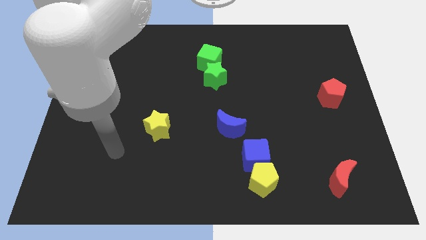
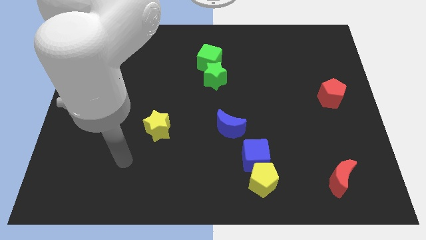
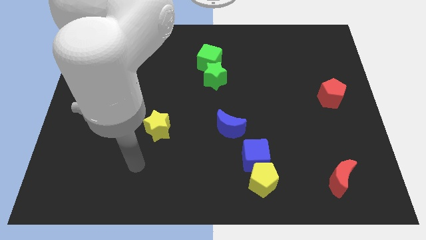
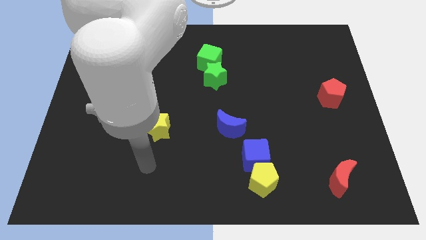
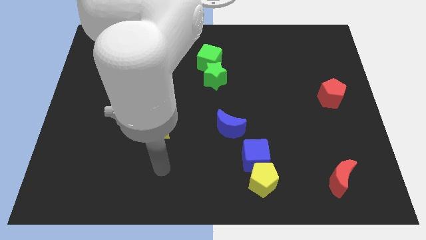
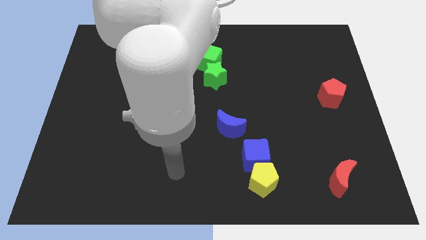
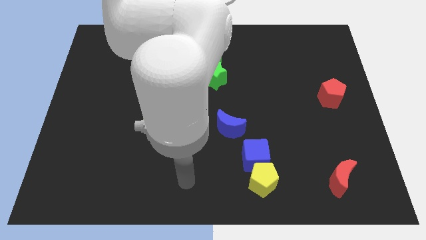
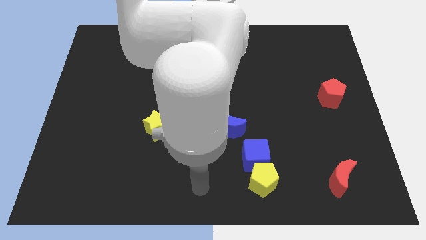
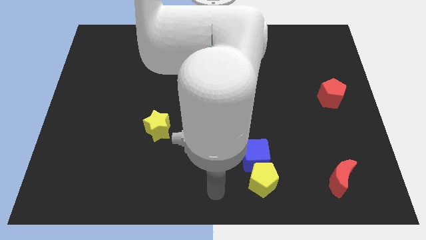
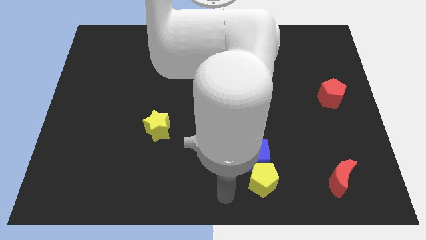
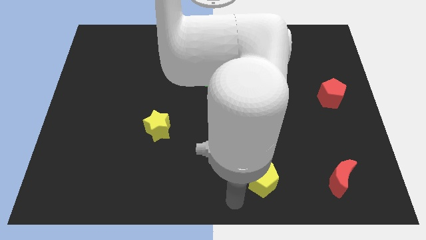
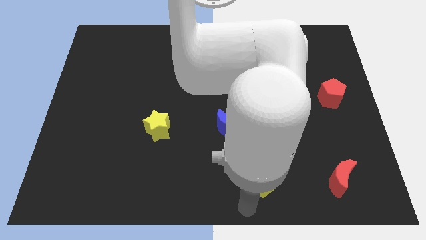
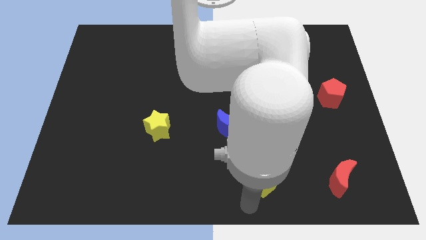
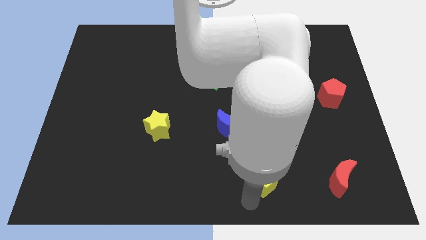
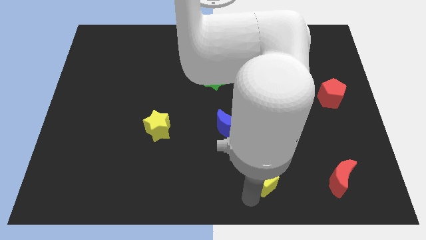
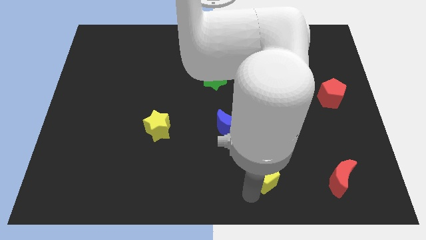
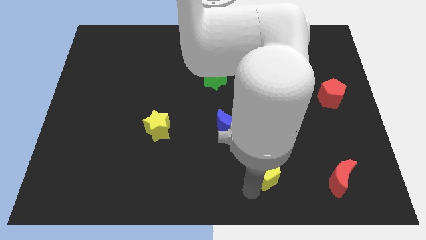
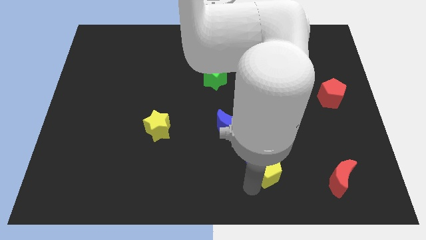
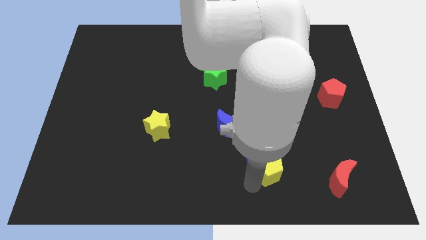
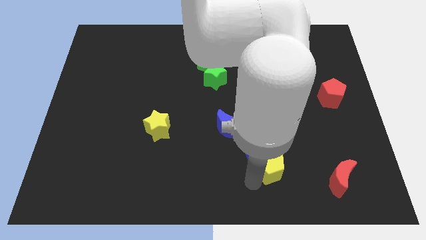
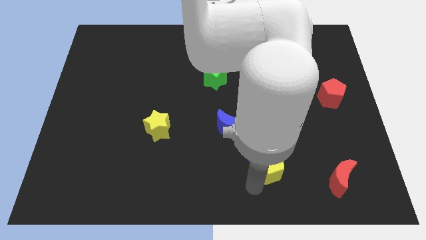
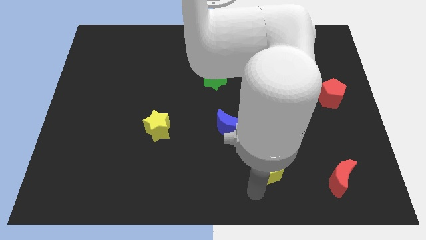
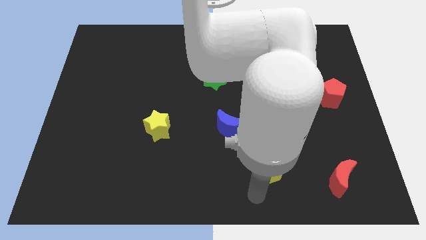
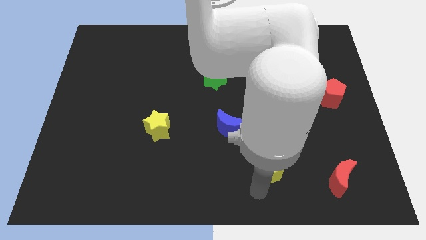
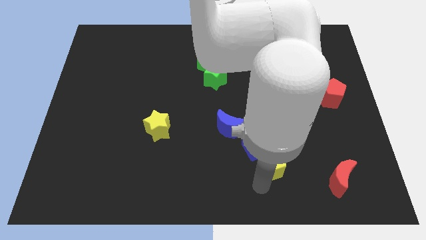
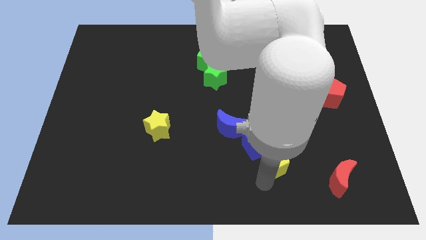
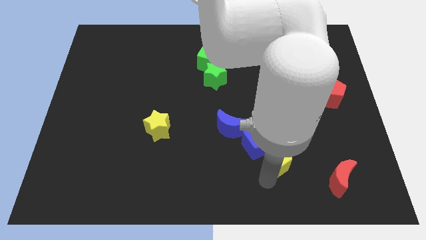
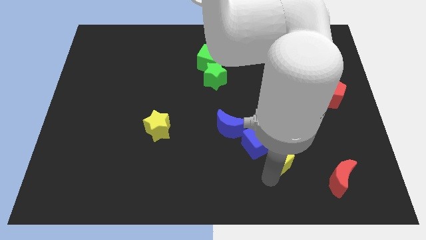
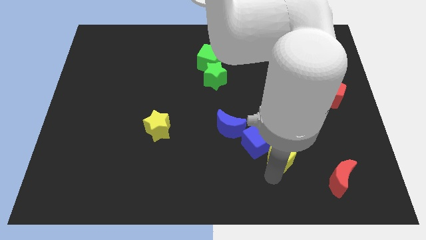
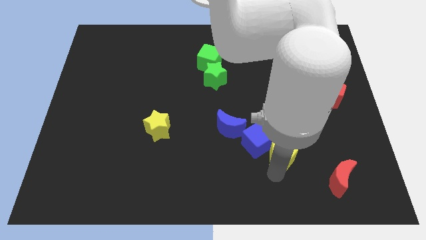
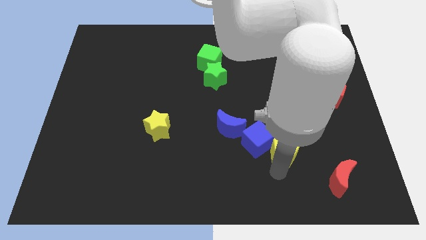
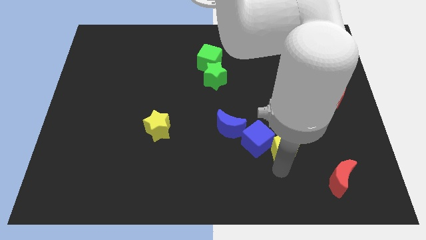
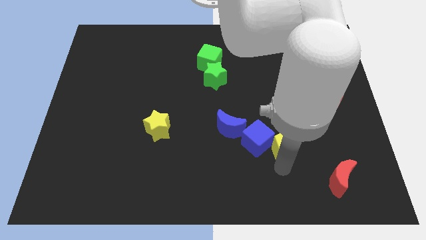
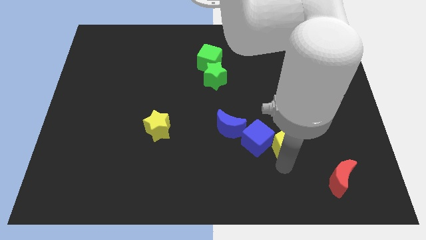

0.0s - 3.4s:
slightly push the yellow pentagon up

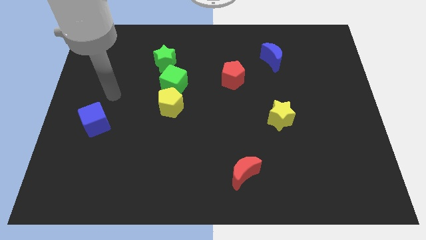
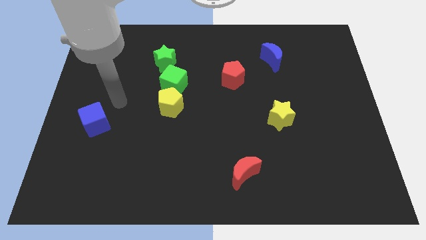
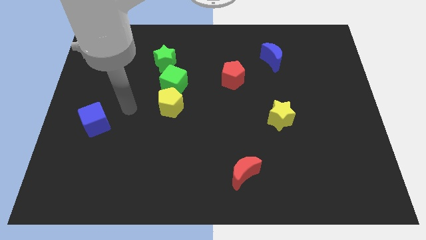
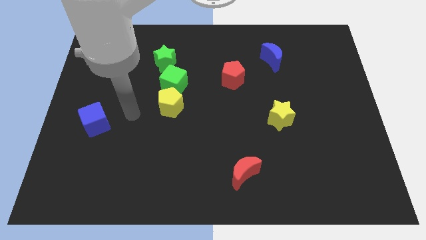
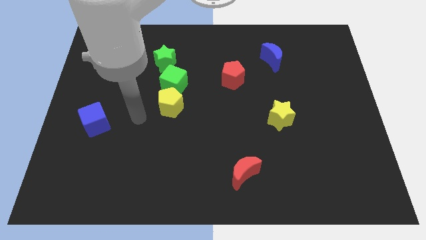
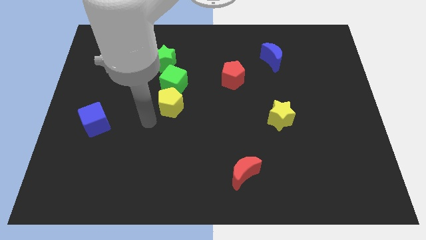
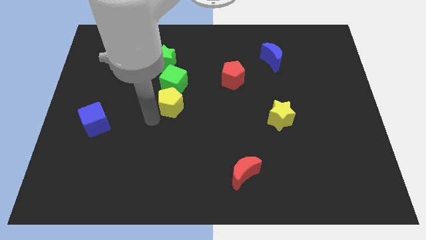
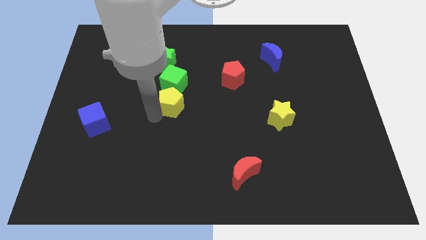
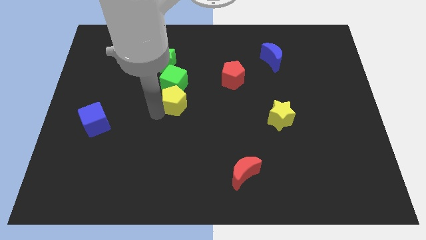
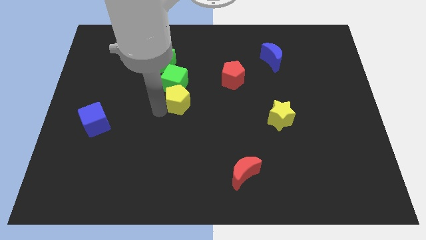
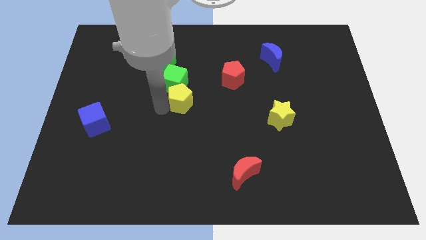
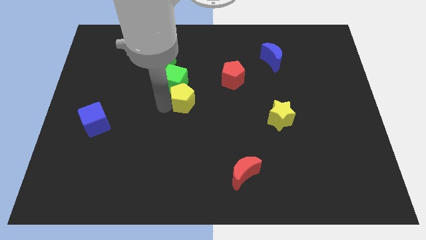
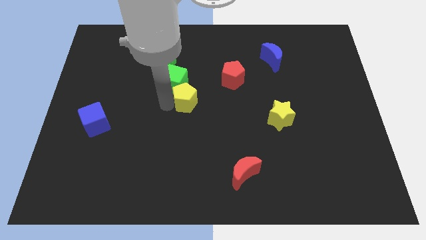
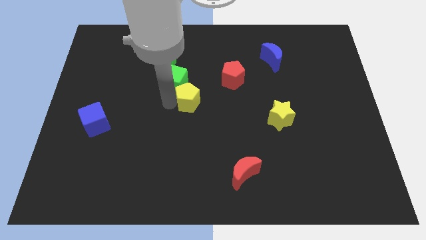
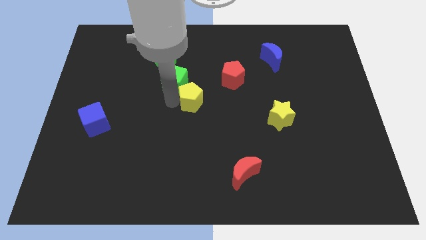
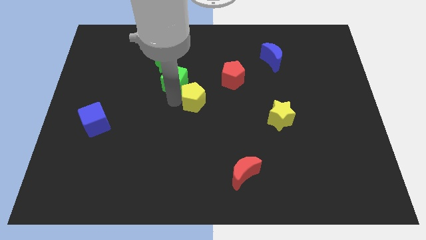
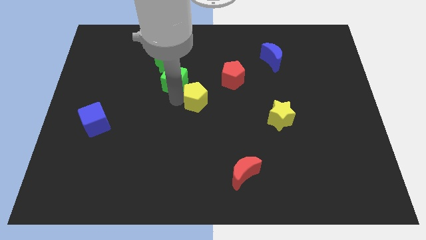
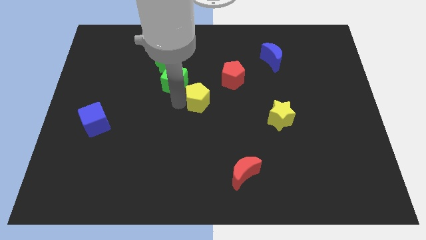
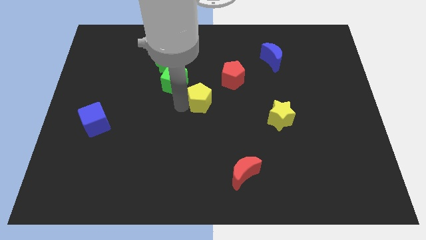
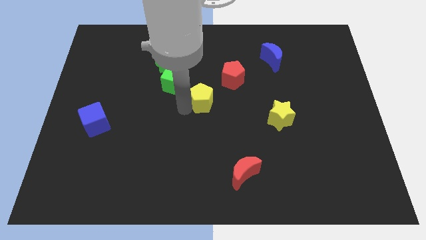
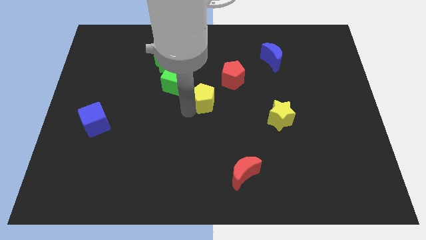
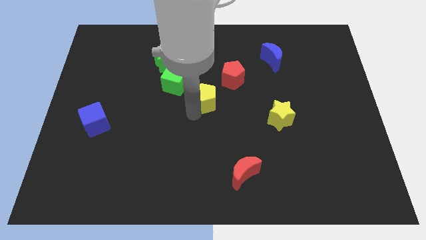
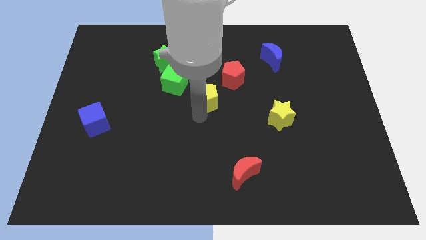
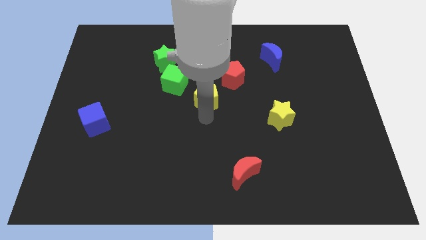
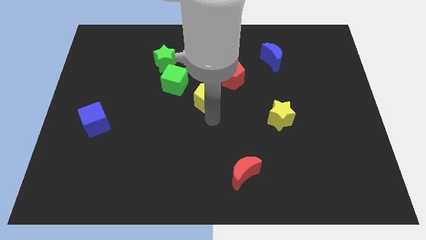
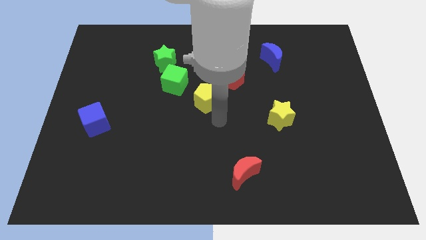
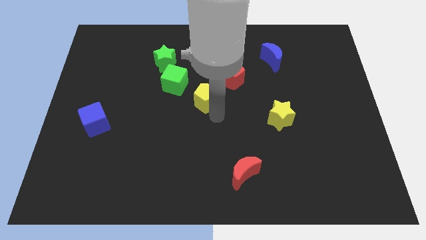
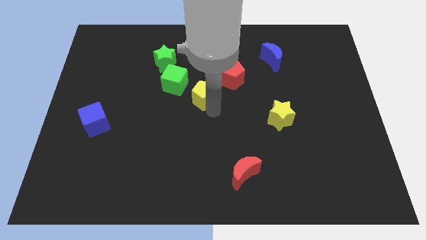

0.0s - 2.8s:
slightly push the yellow pentagon diagonally upwards and right

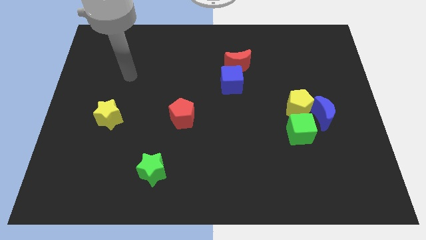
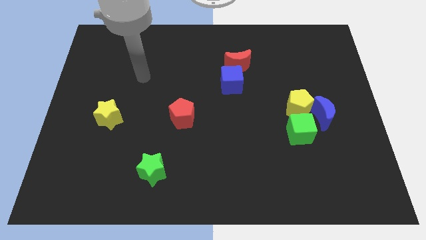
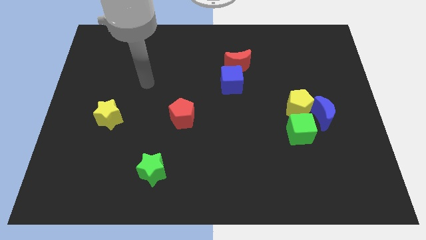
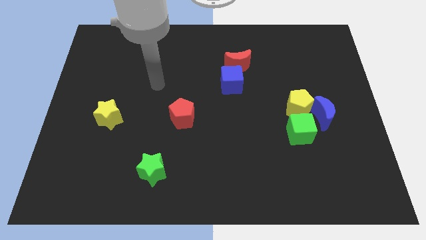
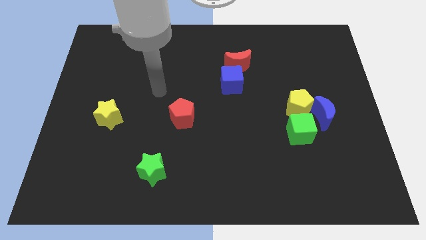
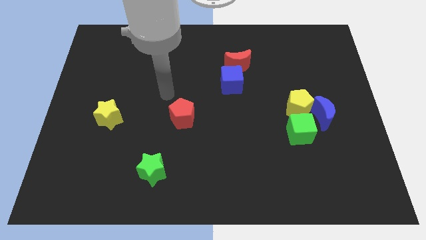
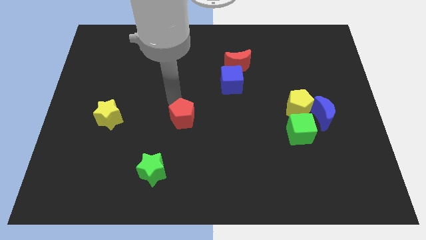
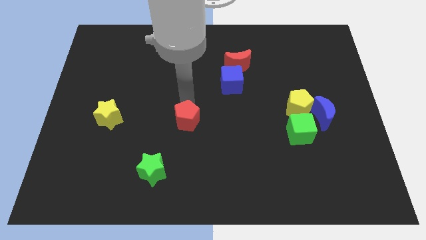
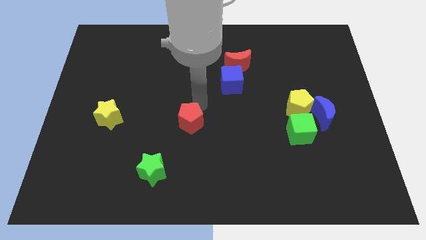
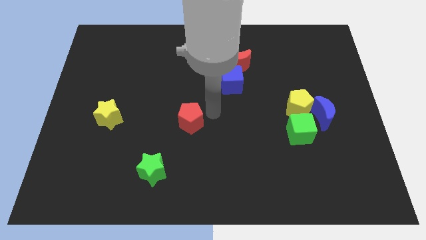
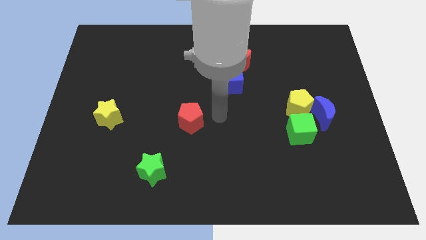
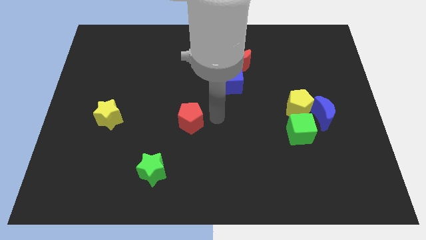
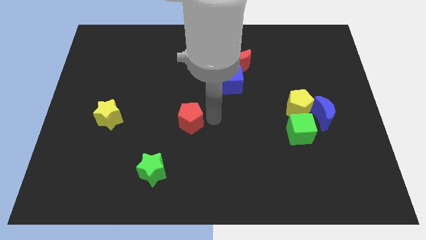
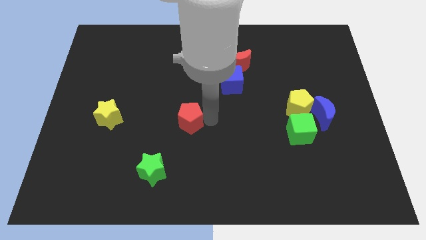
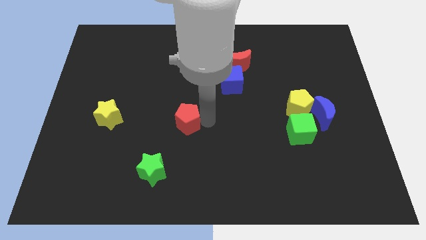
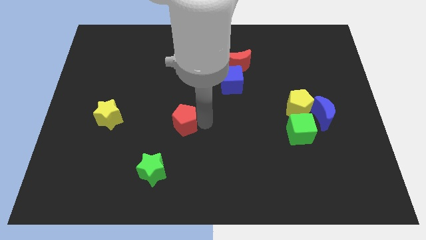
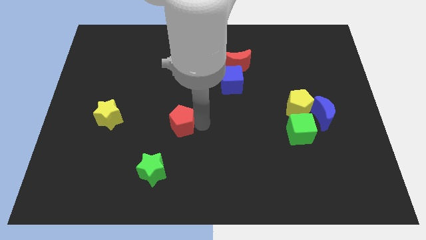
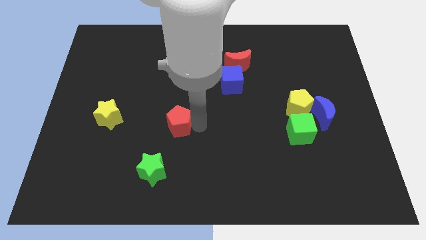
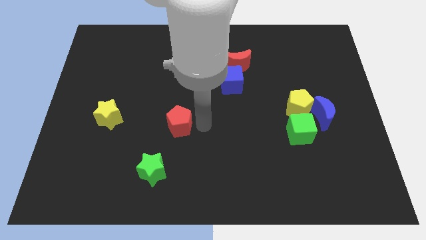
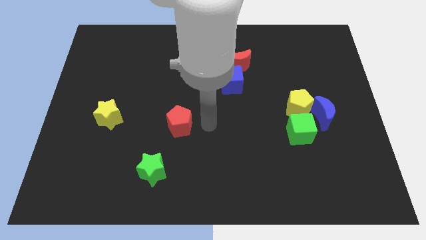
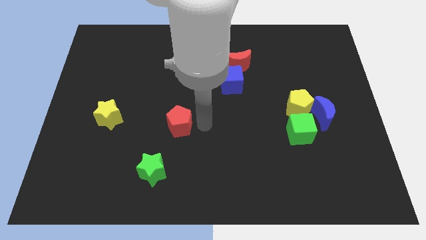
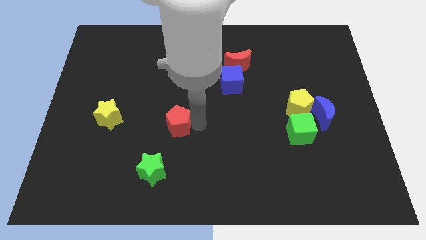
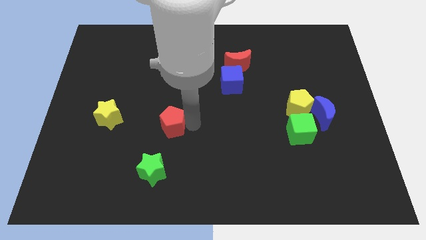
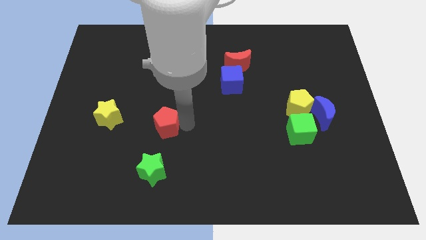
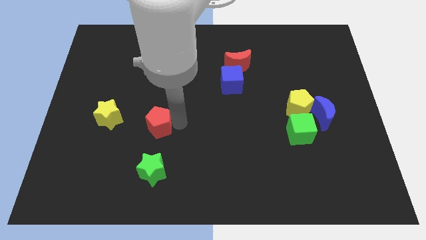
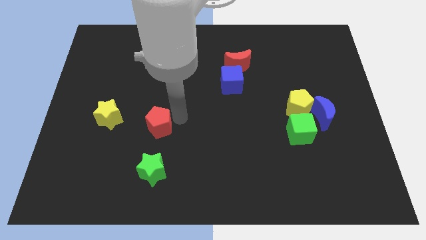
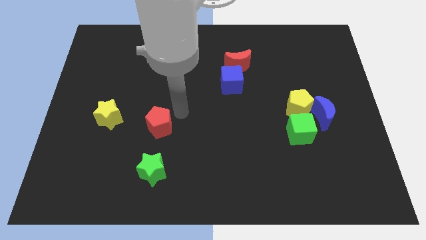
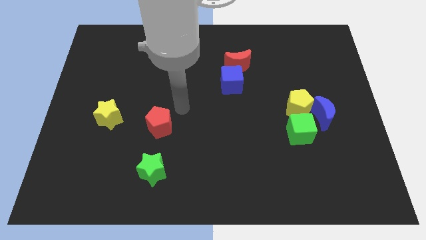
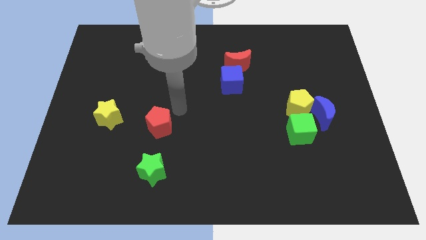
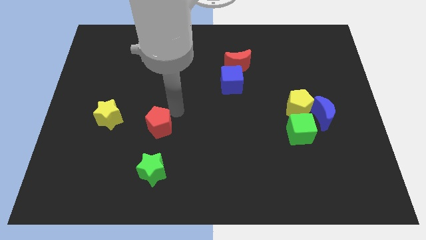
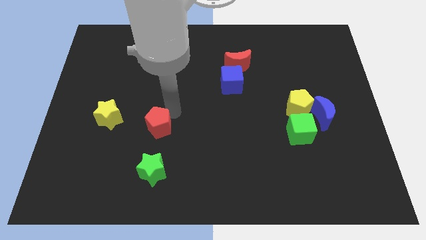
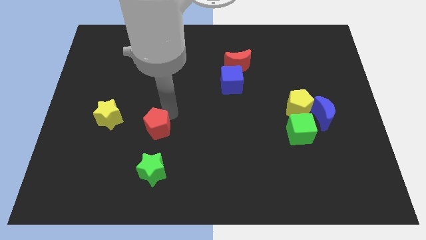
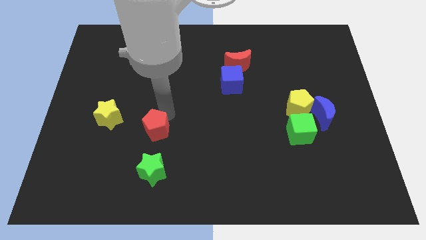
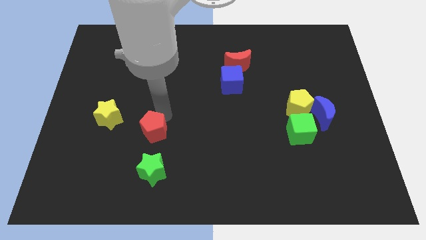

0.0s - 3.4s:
move the red pentagon down and then left somewhat
